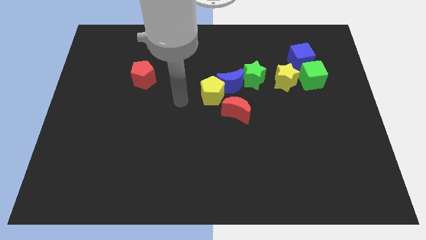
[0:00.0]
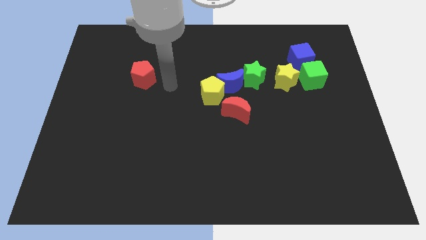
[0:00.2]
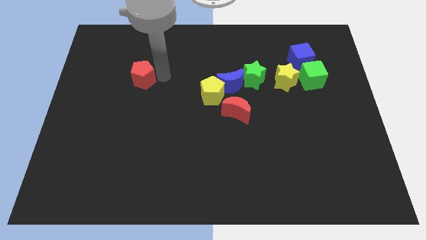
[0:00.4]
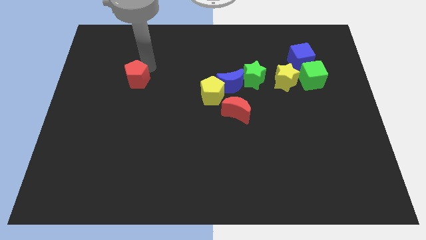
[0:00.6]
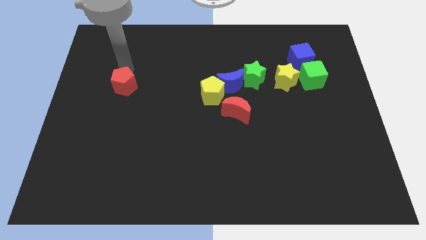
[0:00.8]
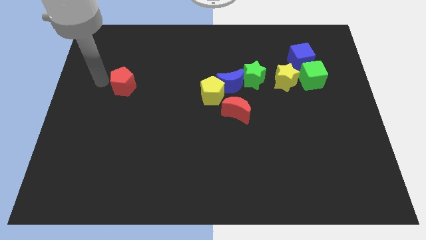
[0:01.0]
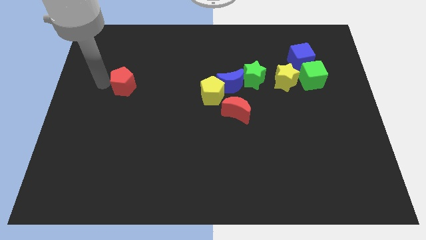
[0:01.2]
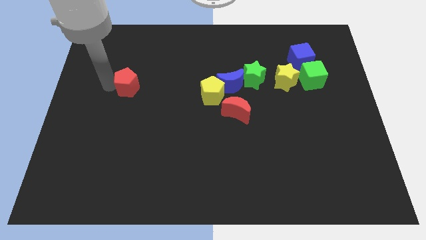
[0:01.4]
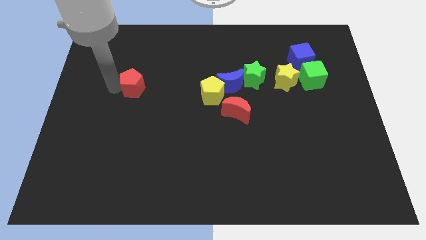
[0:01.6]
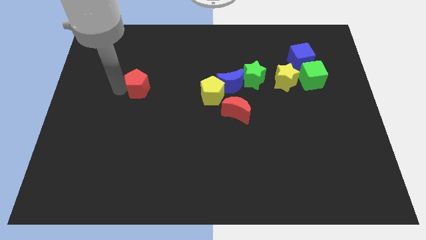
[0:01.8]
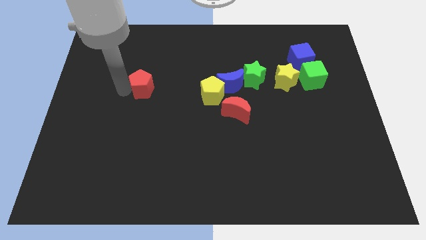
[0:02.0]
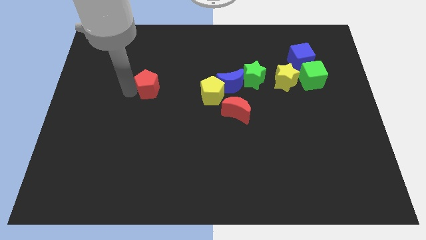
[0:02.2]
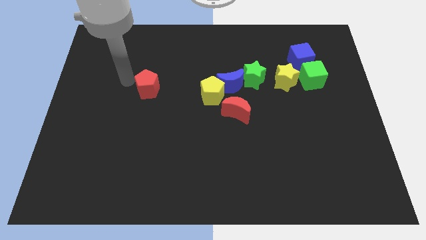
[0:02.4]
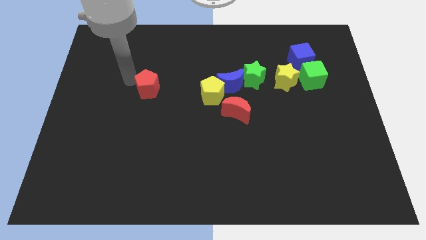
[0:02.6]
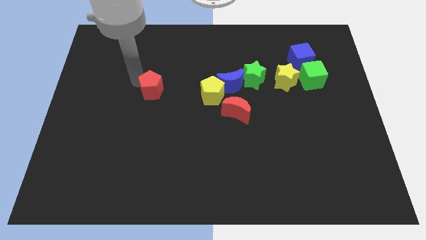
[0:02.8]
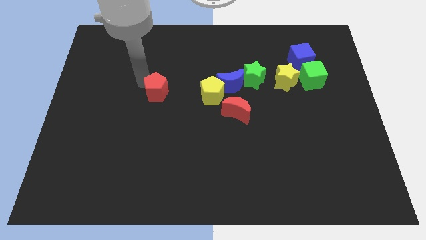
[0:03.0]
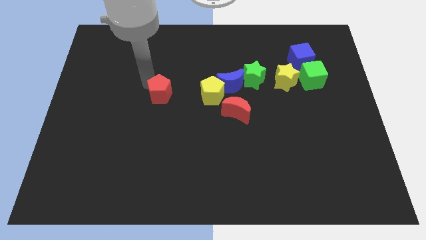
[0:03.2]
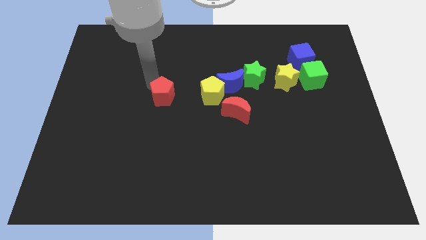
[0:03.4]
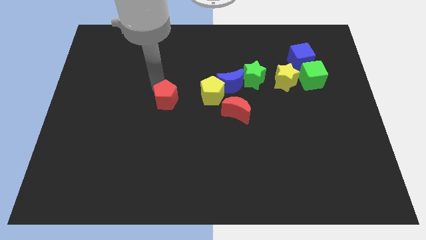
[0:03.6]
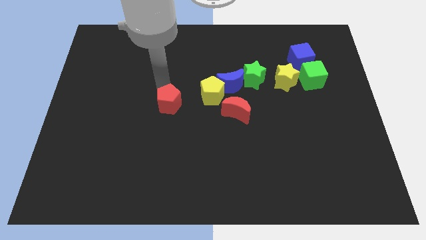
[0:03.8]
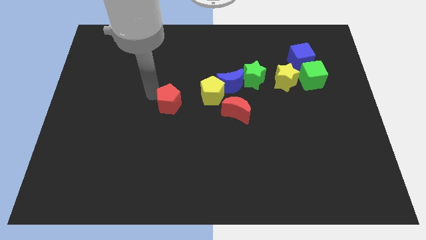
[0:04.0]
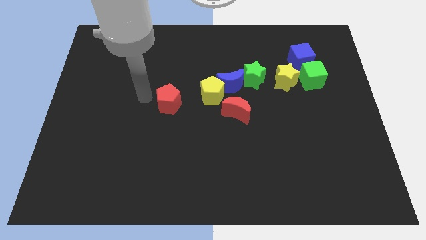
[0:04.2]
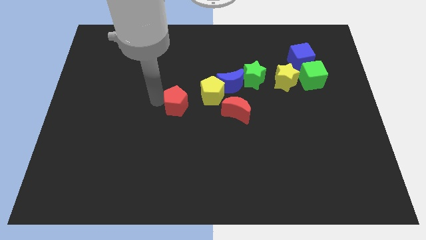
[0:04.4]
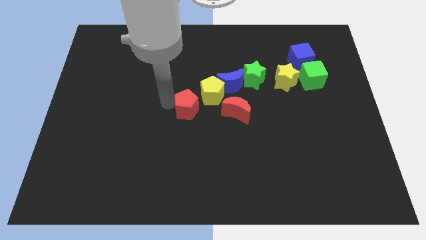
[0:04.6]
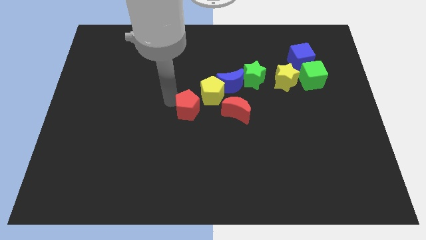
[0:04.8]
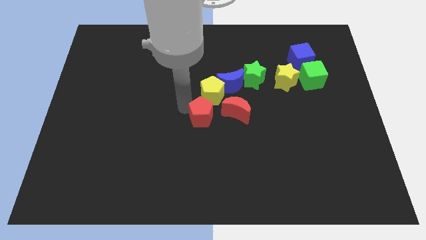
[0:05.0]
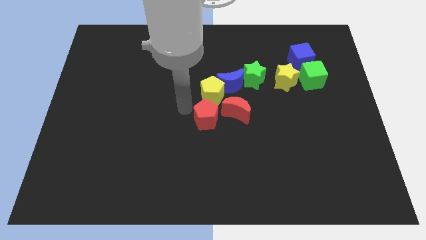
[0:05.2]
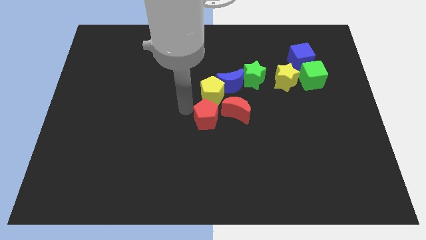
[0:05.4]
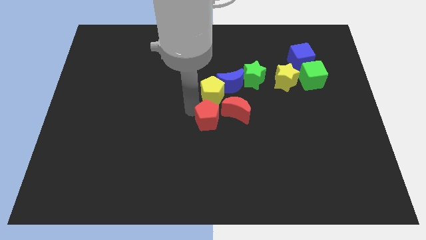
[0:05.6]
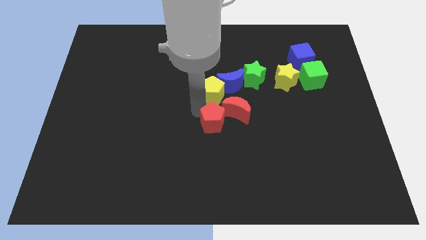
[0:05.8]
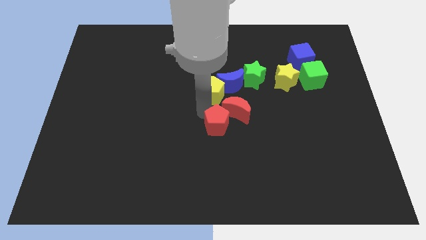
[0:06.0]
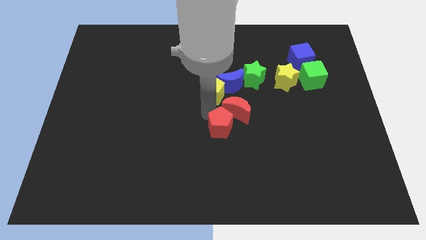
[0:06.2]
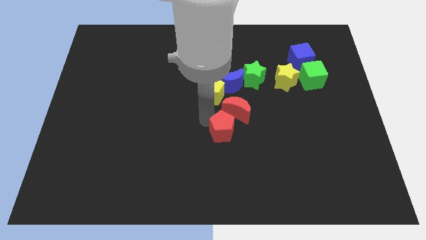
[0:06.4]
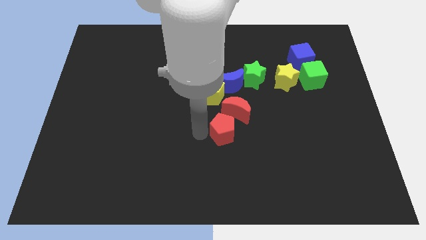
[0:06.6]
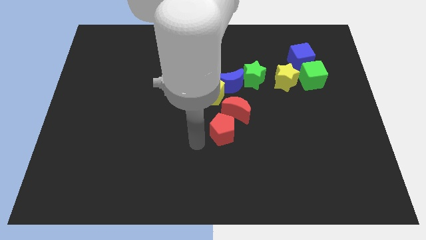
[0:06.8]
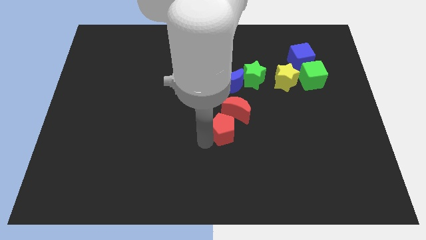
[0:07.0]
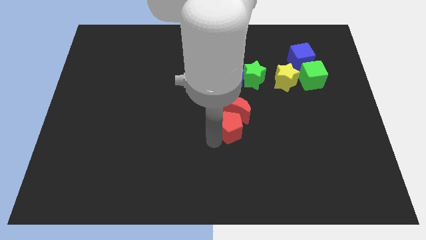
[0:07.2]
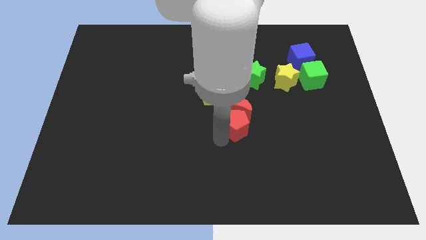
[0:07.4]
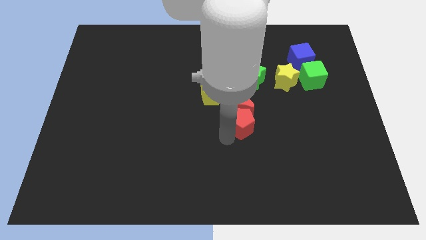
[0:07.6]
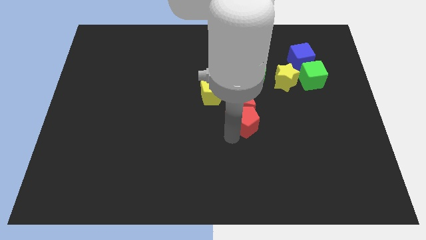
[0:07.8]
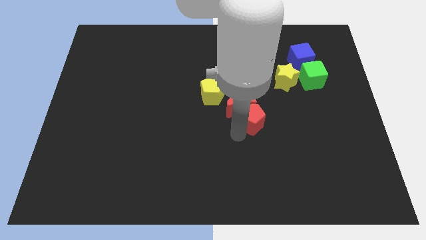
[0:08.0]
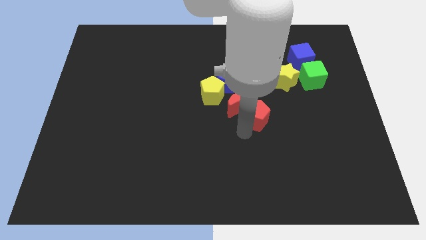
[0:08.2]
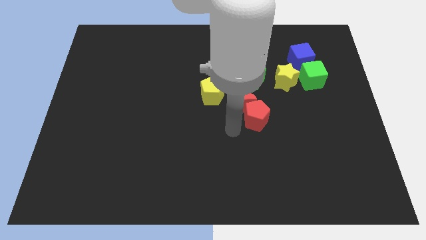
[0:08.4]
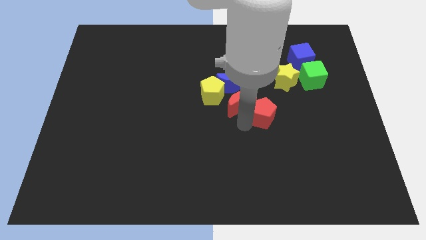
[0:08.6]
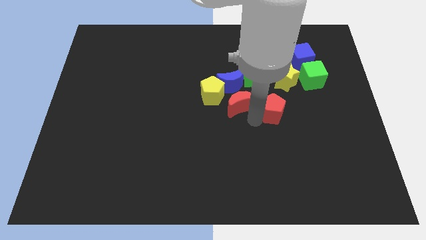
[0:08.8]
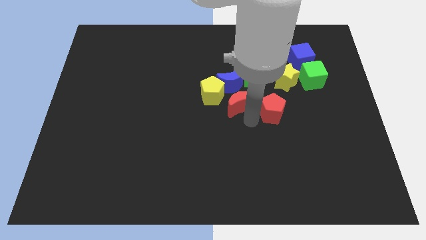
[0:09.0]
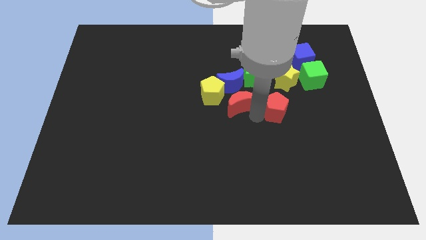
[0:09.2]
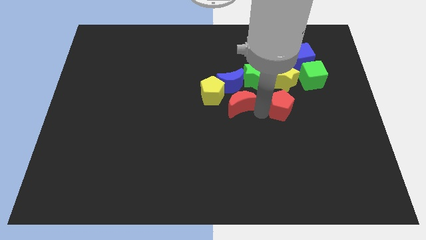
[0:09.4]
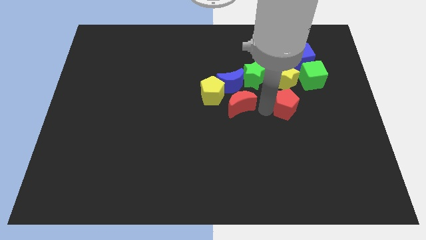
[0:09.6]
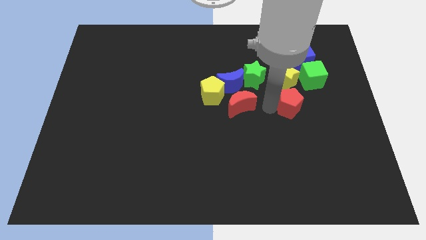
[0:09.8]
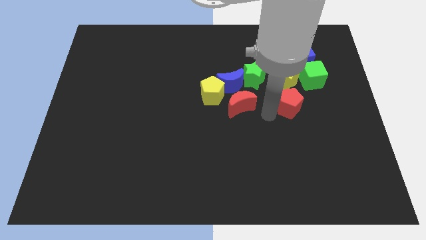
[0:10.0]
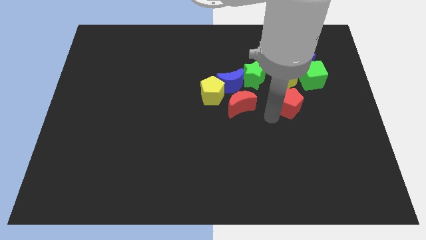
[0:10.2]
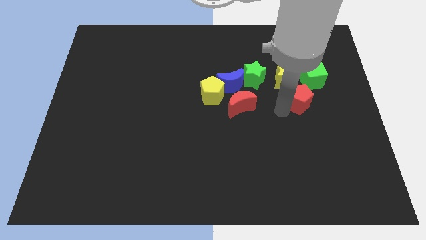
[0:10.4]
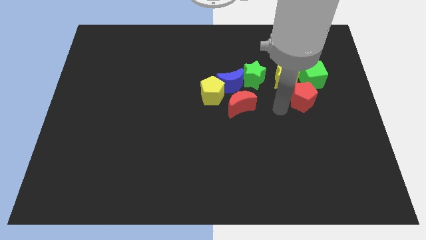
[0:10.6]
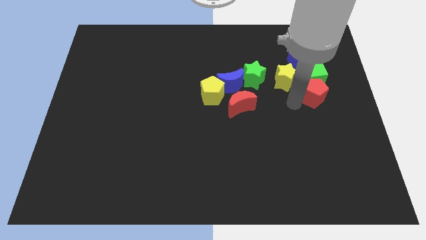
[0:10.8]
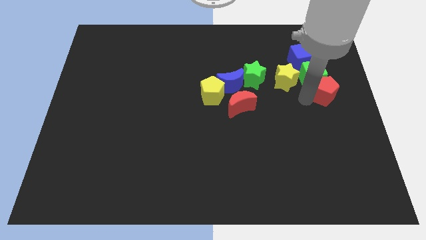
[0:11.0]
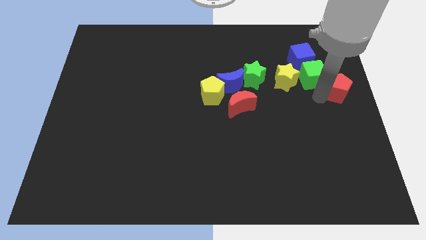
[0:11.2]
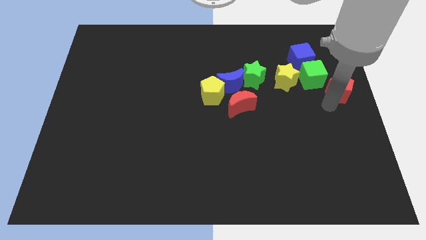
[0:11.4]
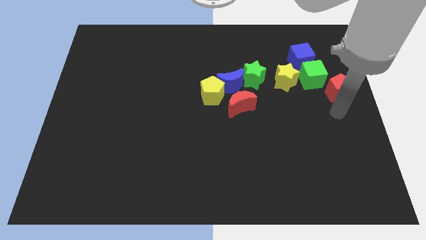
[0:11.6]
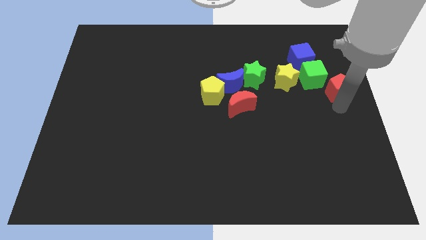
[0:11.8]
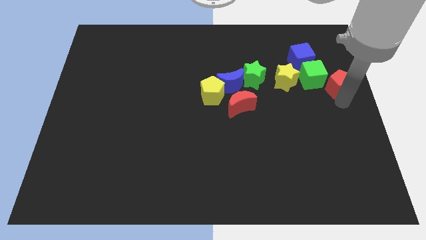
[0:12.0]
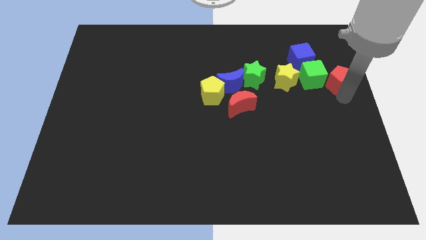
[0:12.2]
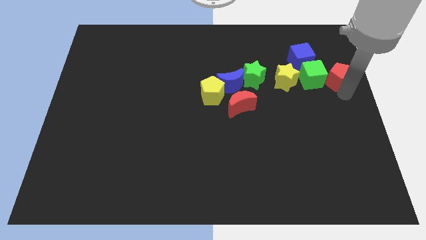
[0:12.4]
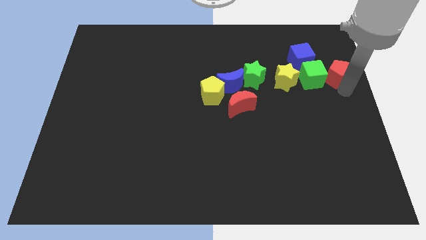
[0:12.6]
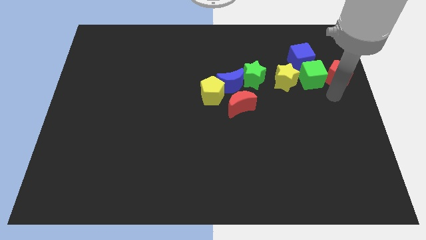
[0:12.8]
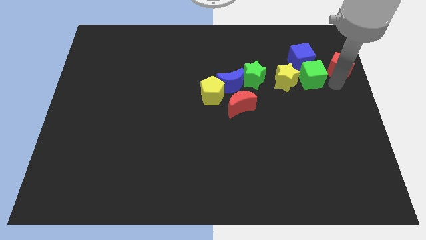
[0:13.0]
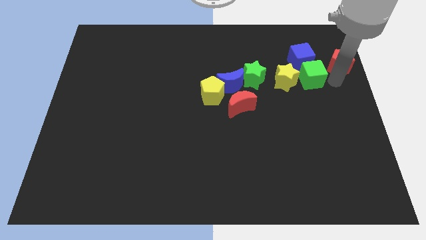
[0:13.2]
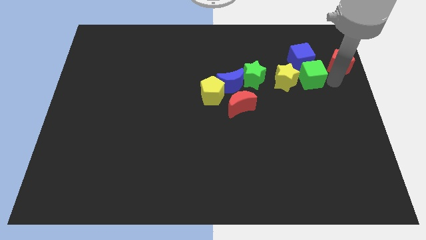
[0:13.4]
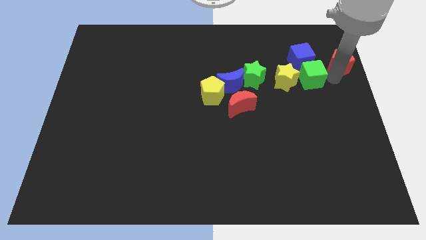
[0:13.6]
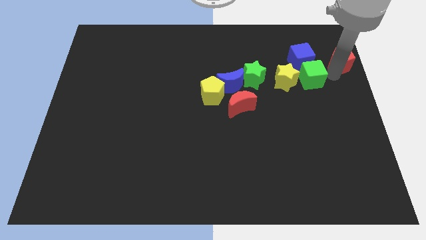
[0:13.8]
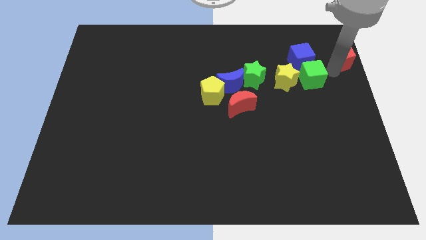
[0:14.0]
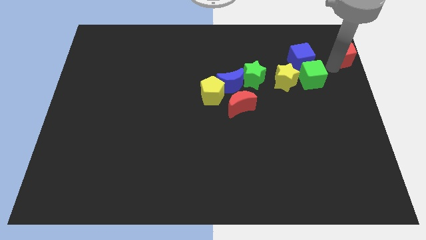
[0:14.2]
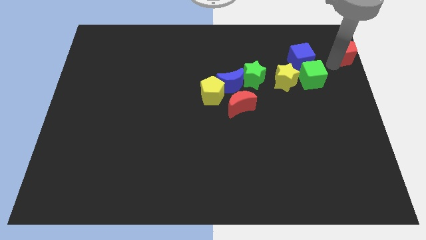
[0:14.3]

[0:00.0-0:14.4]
put the red pentagon to the upper right corner
